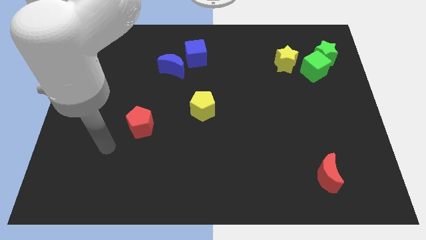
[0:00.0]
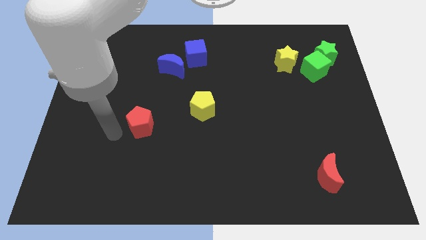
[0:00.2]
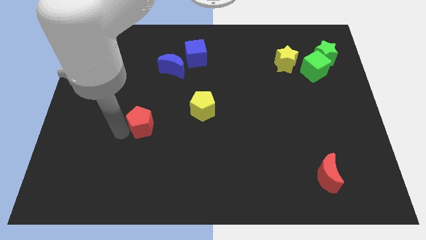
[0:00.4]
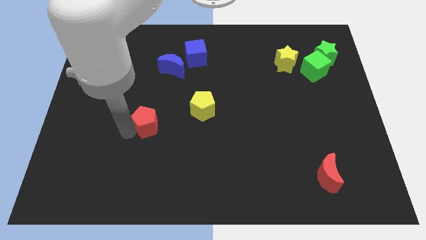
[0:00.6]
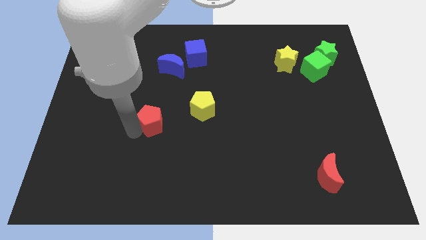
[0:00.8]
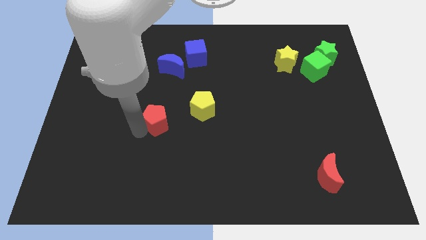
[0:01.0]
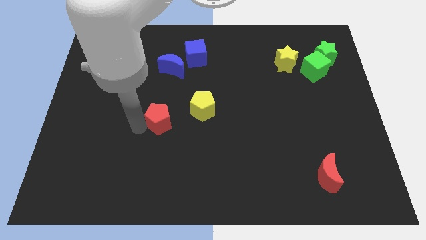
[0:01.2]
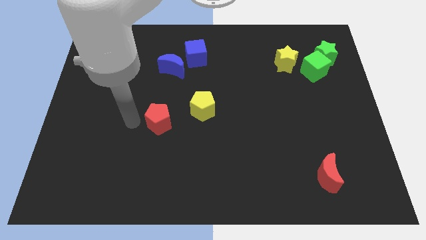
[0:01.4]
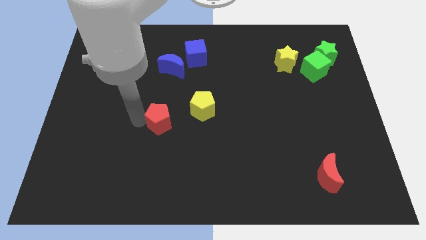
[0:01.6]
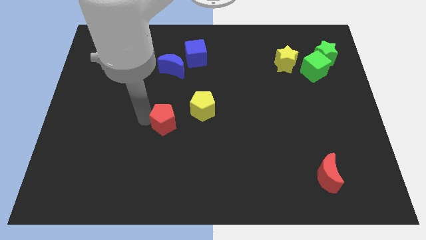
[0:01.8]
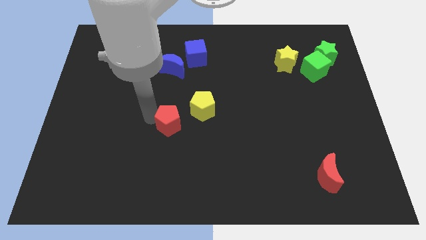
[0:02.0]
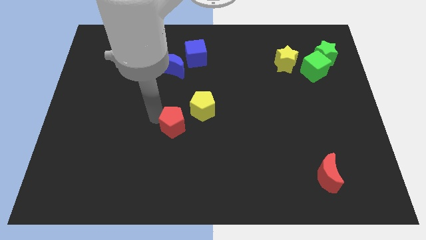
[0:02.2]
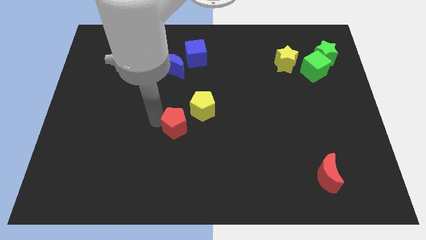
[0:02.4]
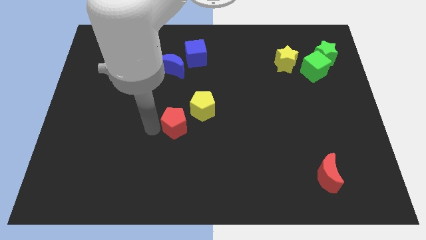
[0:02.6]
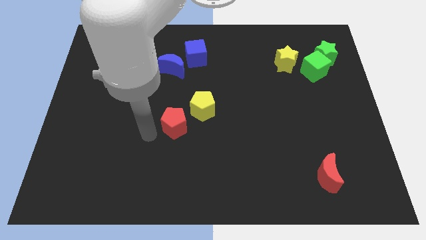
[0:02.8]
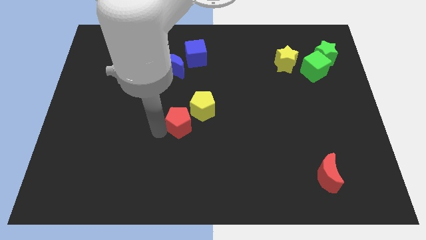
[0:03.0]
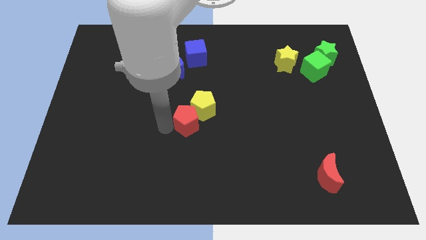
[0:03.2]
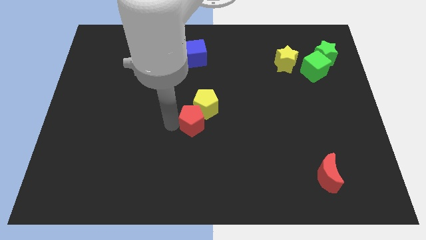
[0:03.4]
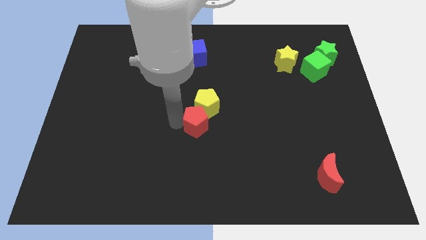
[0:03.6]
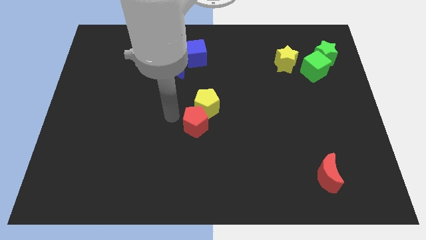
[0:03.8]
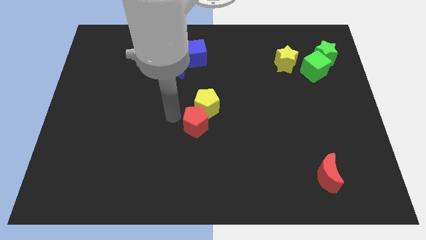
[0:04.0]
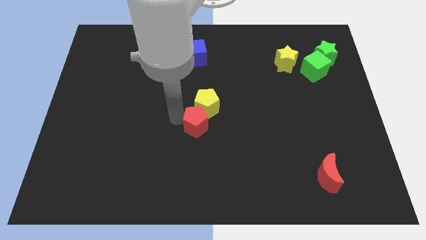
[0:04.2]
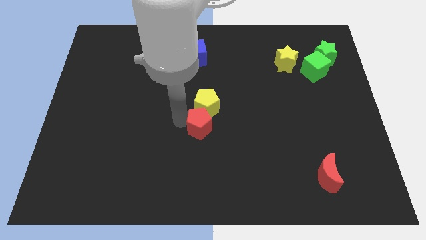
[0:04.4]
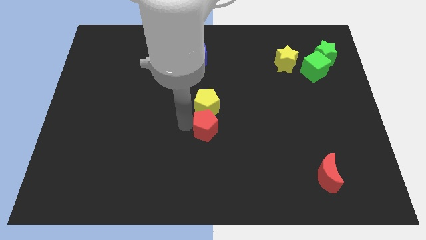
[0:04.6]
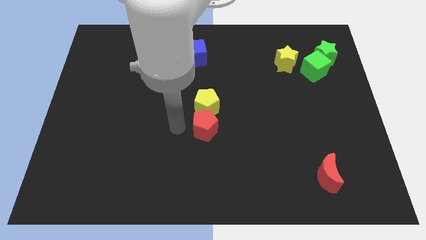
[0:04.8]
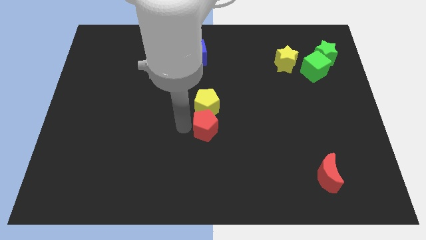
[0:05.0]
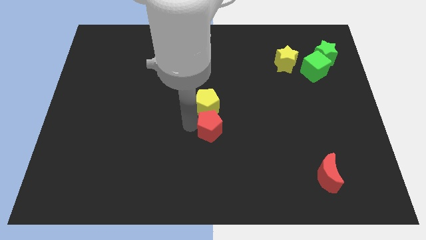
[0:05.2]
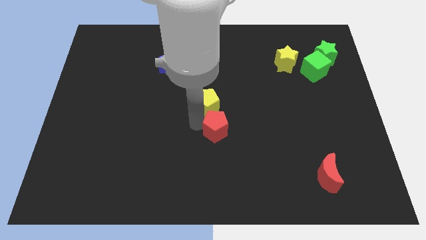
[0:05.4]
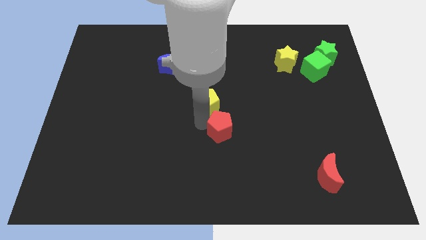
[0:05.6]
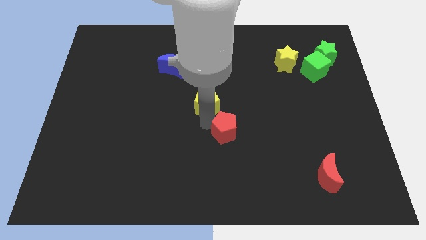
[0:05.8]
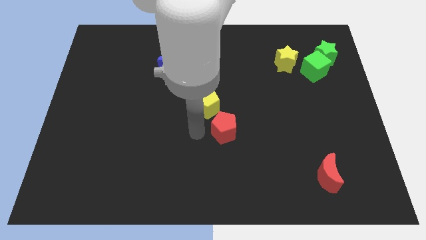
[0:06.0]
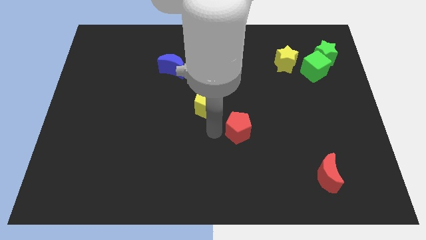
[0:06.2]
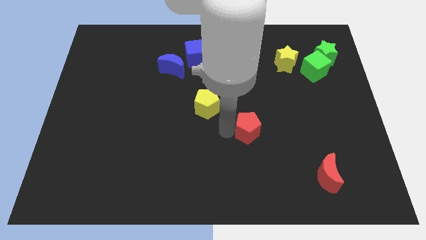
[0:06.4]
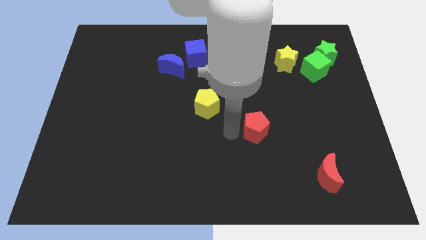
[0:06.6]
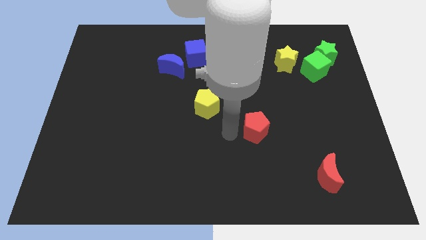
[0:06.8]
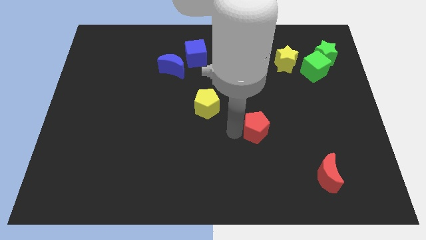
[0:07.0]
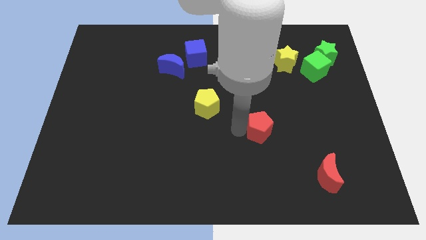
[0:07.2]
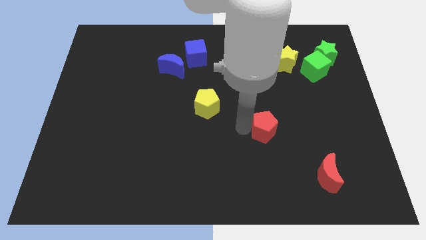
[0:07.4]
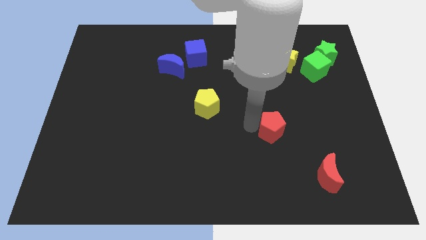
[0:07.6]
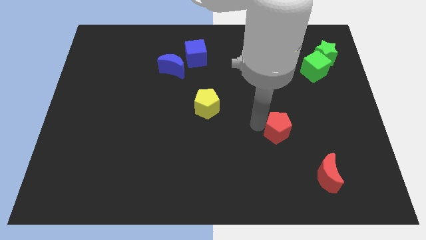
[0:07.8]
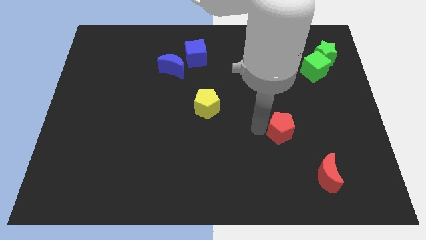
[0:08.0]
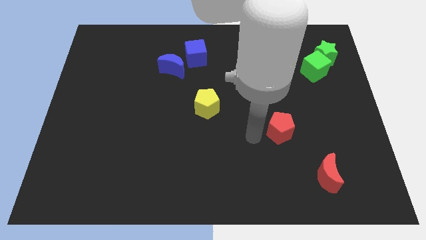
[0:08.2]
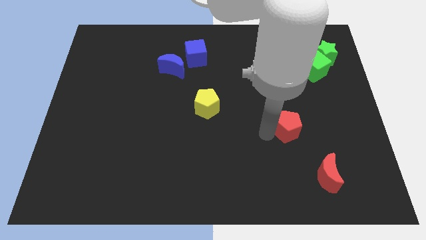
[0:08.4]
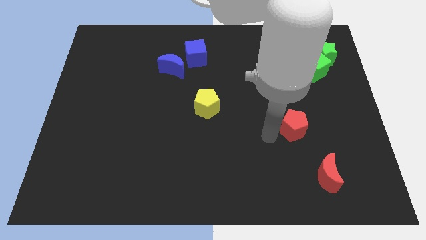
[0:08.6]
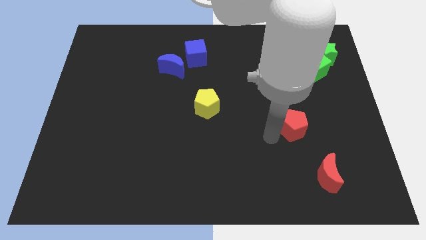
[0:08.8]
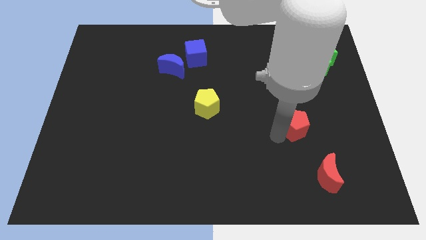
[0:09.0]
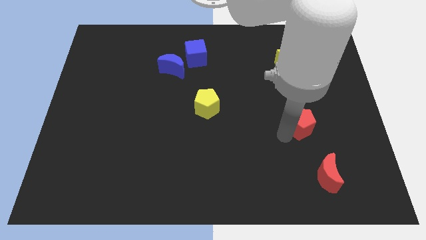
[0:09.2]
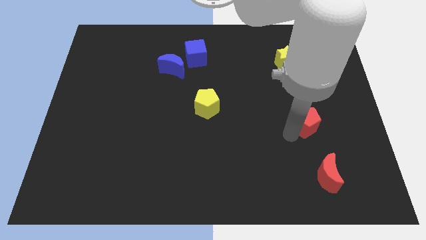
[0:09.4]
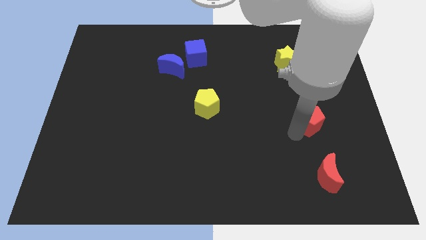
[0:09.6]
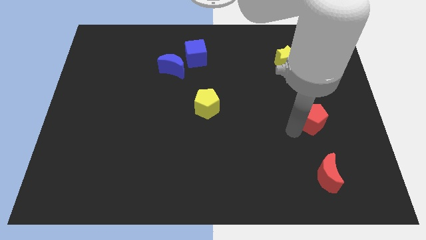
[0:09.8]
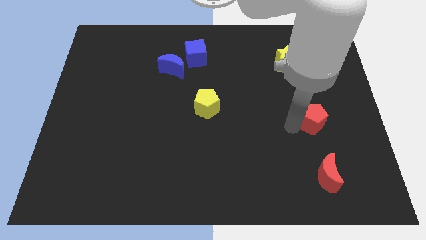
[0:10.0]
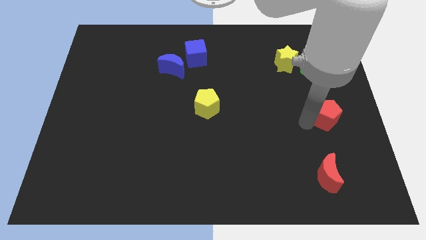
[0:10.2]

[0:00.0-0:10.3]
put the red pentagon to the center right

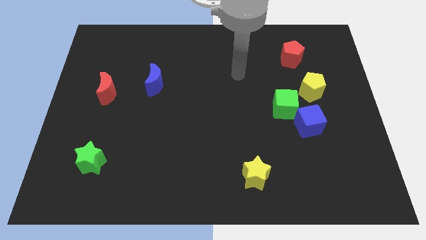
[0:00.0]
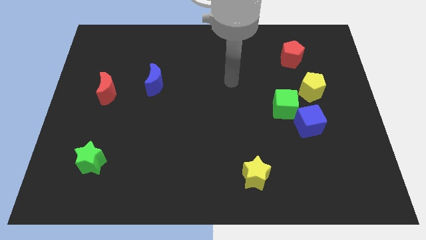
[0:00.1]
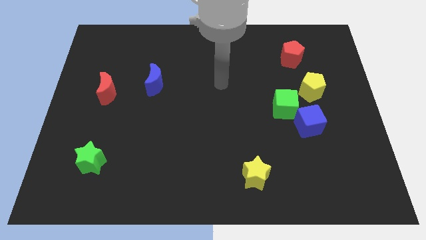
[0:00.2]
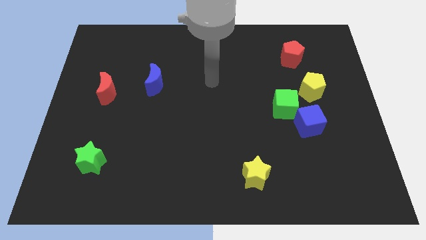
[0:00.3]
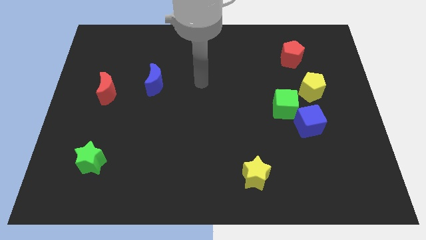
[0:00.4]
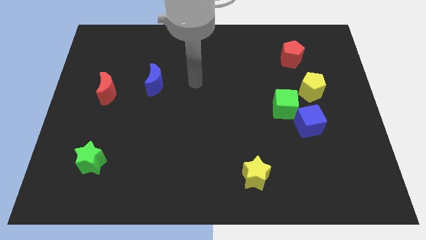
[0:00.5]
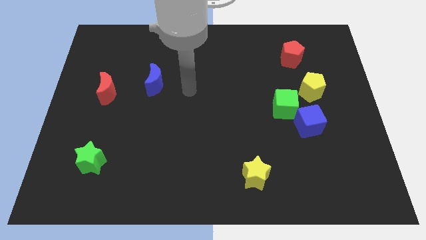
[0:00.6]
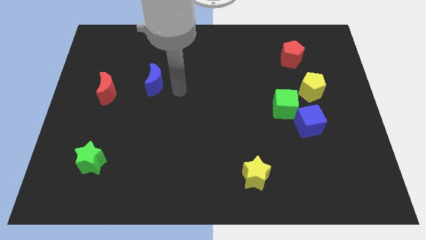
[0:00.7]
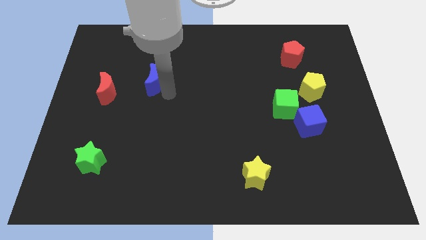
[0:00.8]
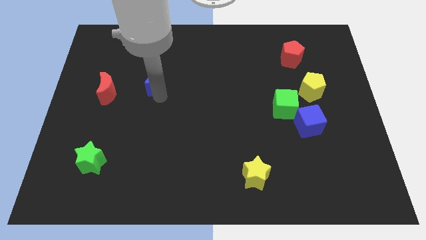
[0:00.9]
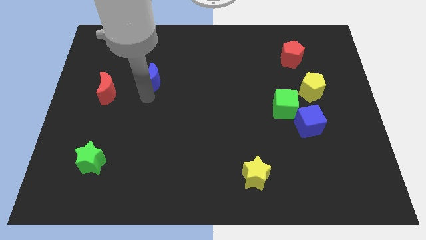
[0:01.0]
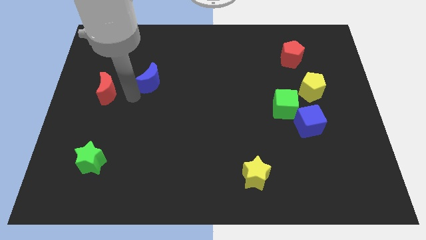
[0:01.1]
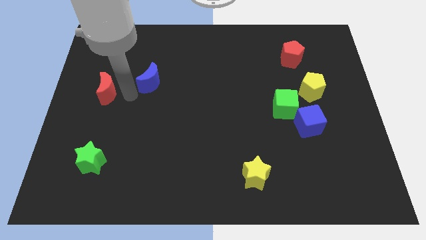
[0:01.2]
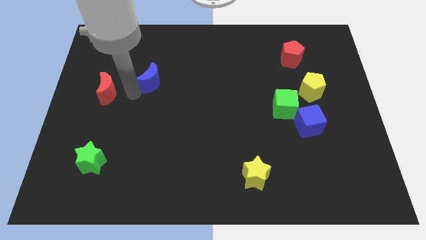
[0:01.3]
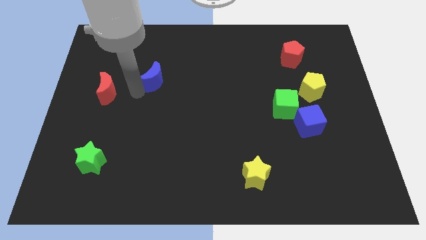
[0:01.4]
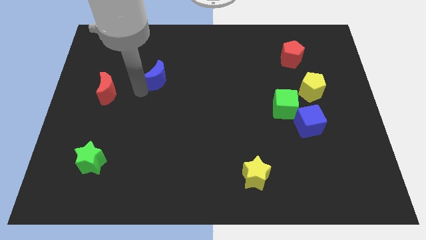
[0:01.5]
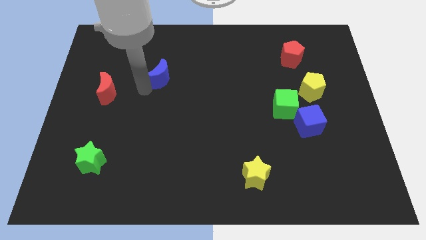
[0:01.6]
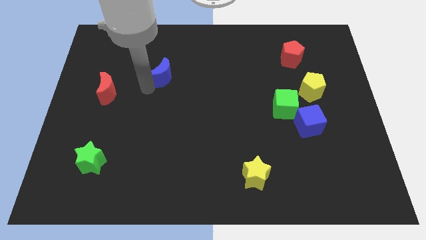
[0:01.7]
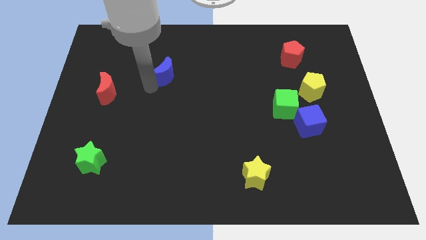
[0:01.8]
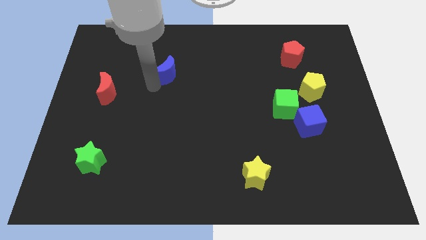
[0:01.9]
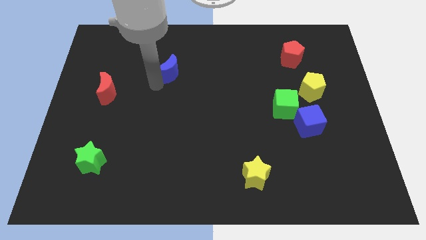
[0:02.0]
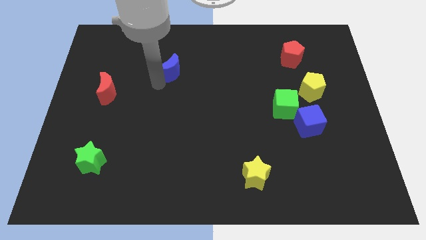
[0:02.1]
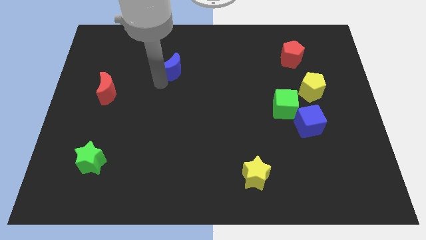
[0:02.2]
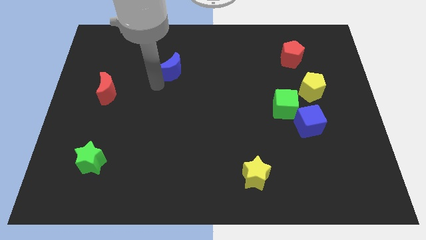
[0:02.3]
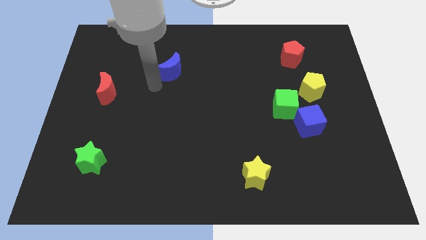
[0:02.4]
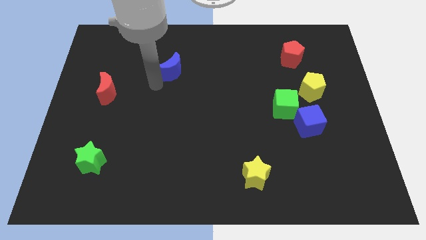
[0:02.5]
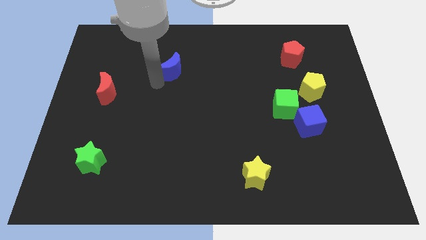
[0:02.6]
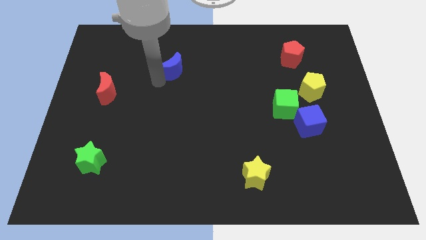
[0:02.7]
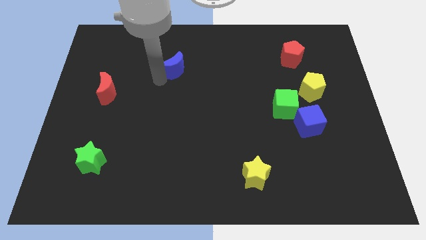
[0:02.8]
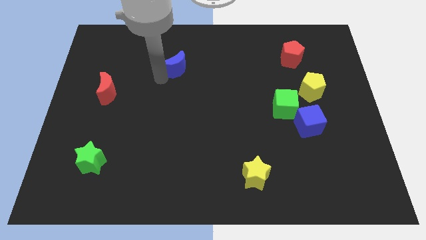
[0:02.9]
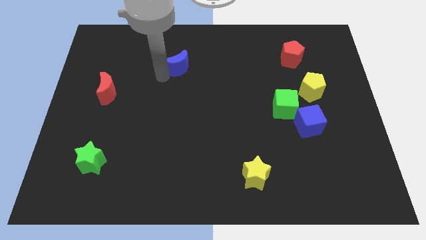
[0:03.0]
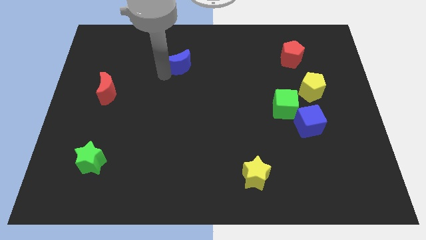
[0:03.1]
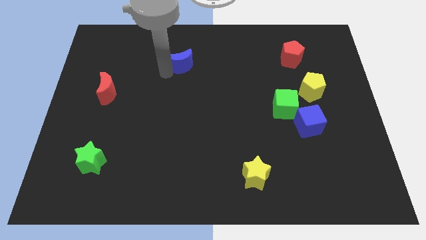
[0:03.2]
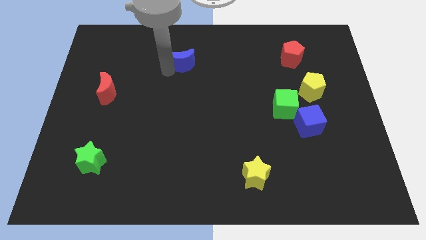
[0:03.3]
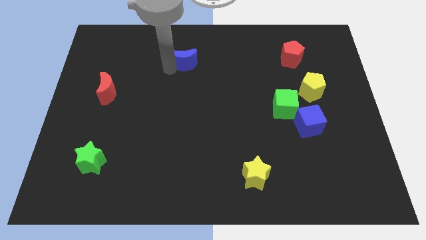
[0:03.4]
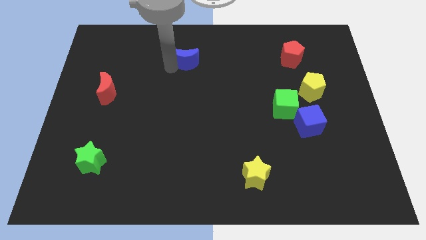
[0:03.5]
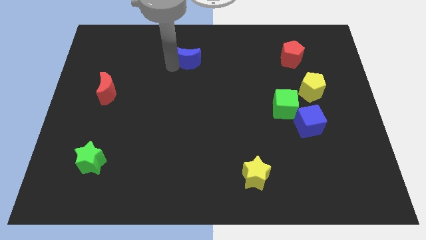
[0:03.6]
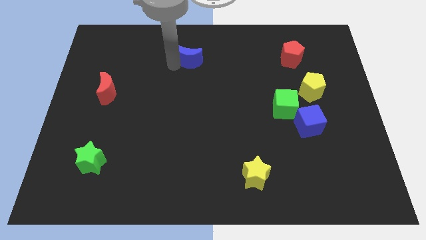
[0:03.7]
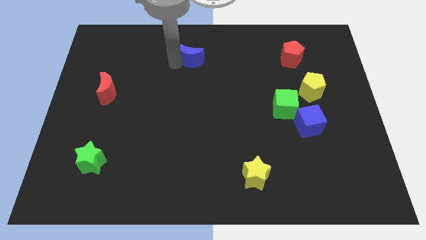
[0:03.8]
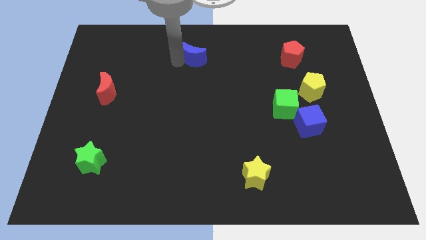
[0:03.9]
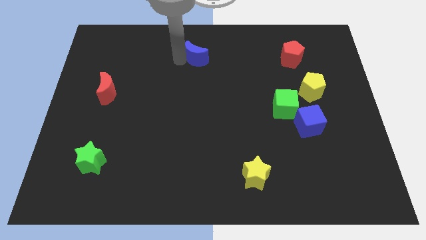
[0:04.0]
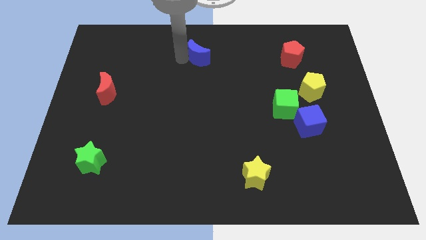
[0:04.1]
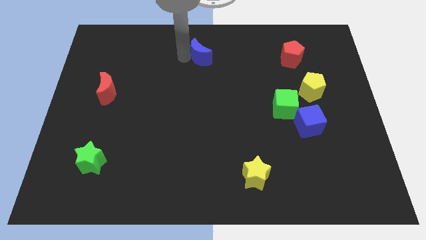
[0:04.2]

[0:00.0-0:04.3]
slide the blue moon to the top
